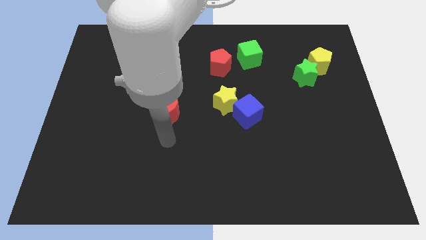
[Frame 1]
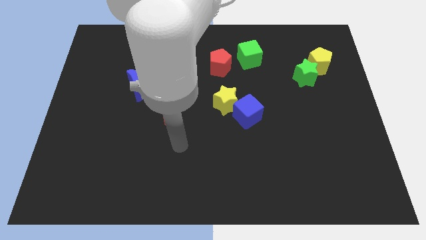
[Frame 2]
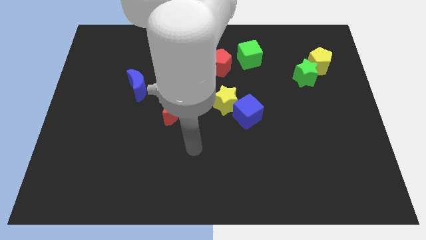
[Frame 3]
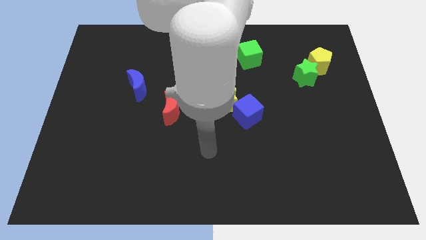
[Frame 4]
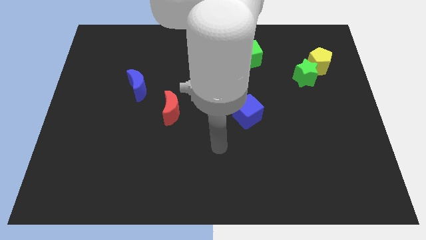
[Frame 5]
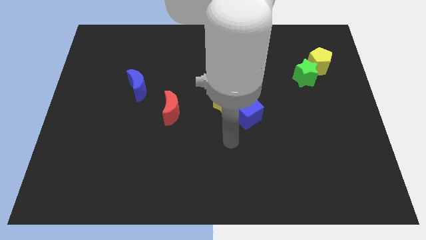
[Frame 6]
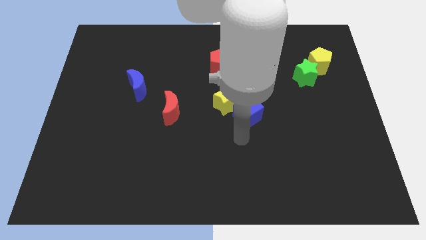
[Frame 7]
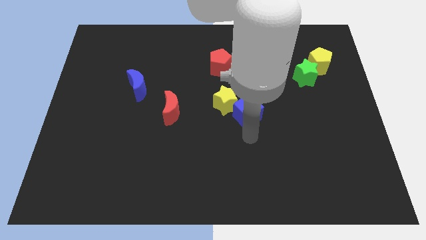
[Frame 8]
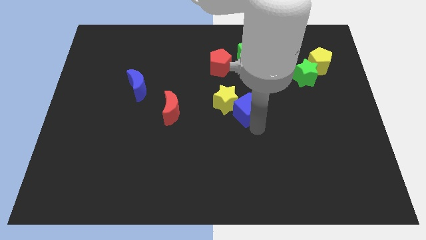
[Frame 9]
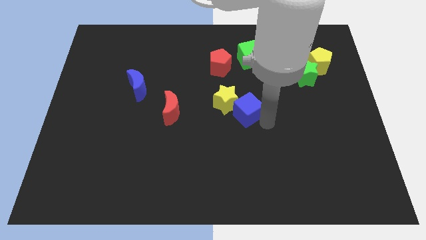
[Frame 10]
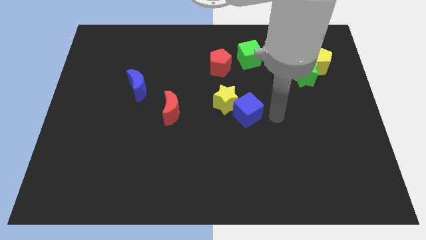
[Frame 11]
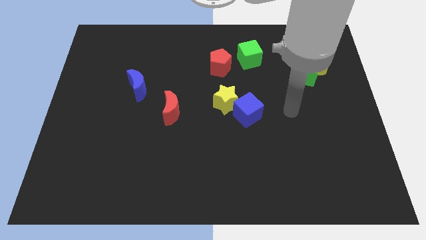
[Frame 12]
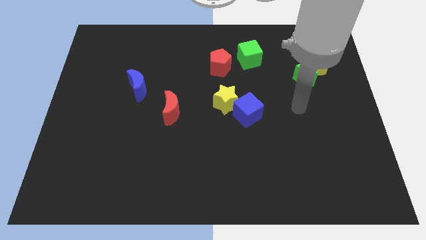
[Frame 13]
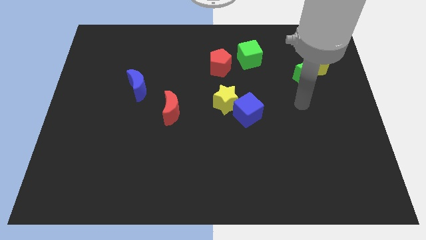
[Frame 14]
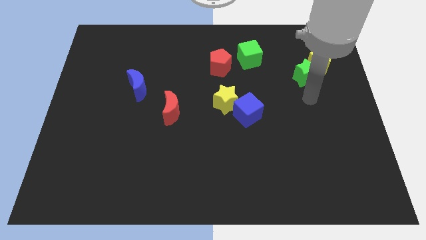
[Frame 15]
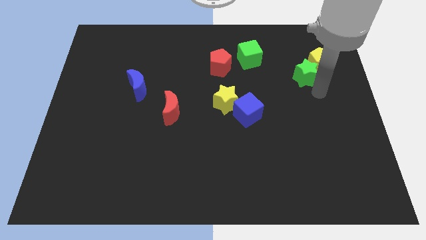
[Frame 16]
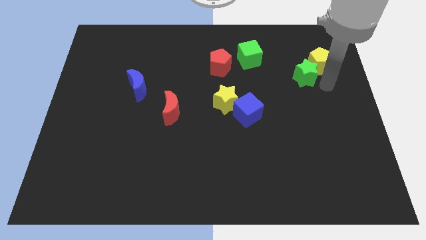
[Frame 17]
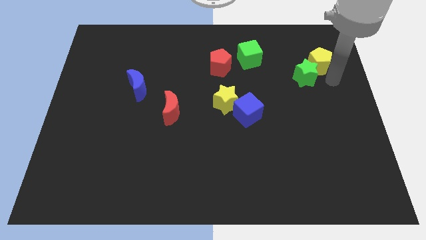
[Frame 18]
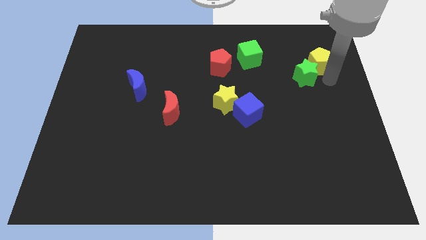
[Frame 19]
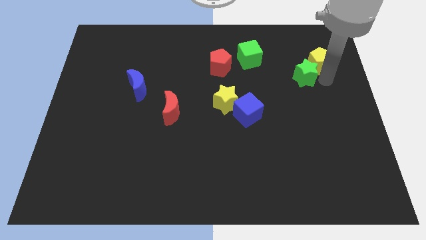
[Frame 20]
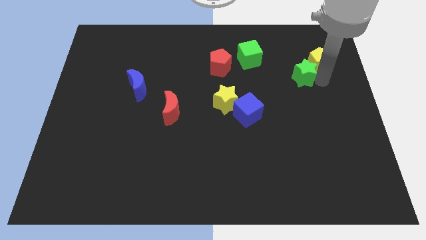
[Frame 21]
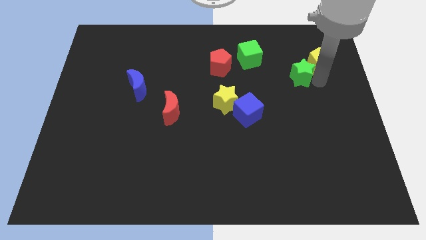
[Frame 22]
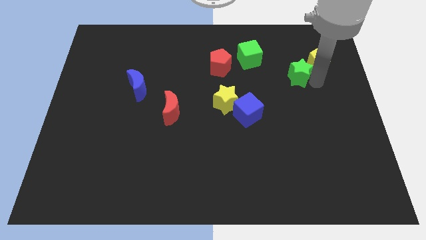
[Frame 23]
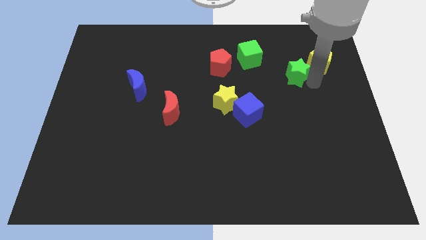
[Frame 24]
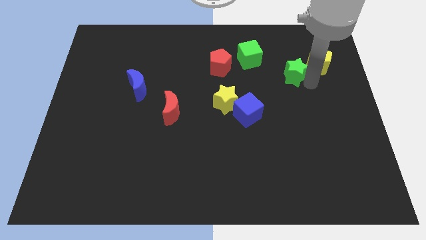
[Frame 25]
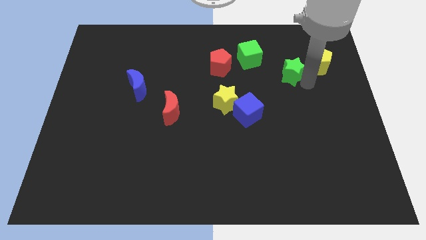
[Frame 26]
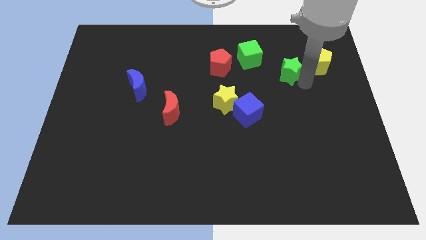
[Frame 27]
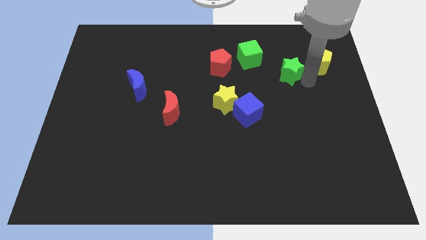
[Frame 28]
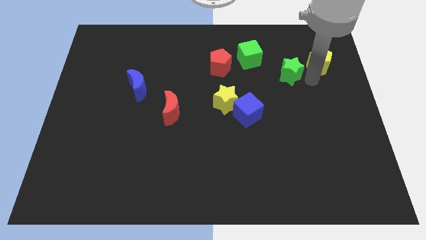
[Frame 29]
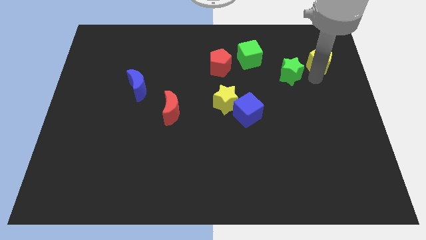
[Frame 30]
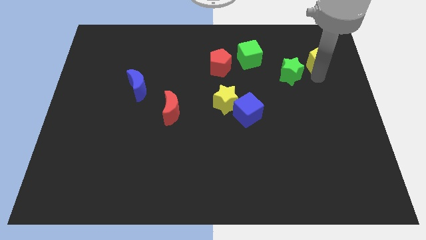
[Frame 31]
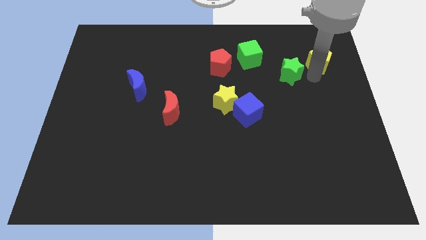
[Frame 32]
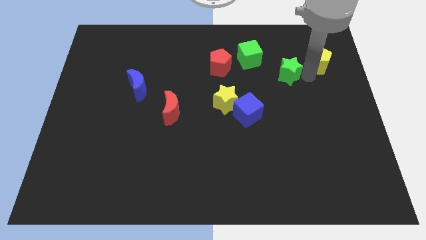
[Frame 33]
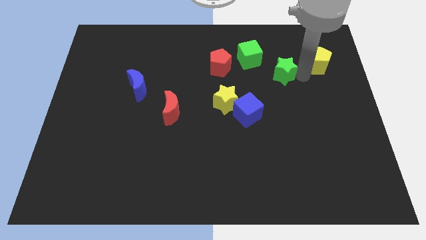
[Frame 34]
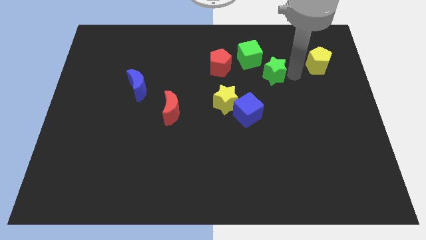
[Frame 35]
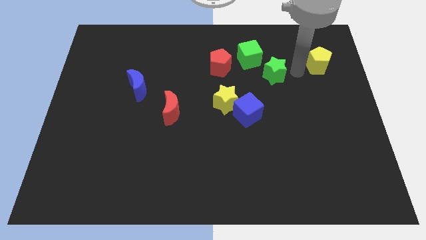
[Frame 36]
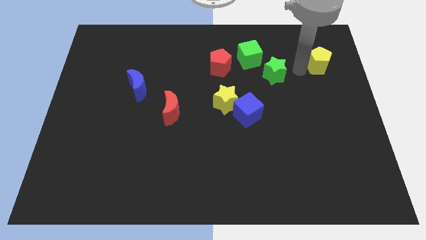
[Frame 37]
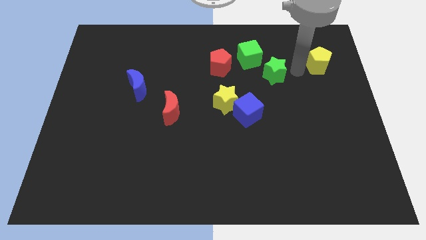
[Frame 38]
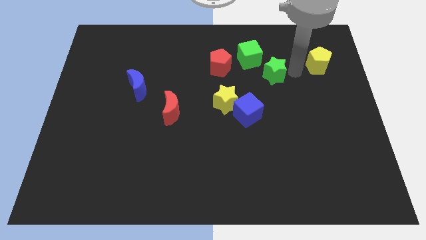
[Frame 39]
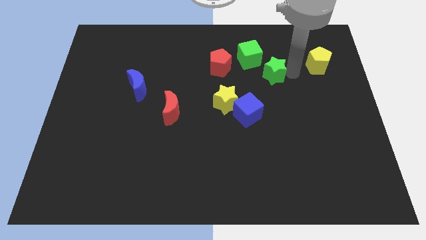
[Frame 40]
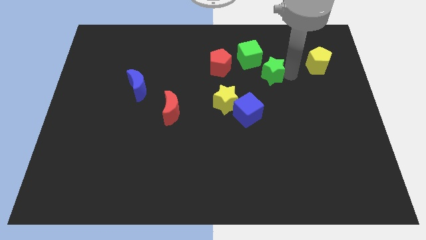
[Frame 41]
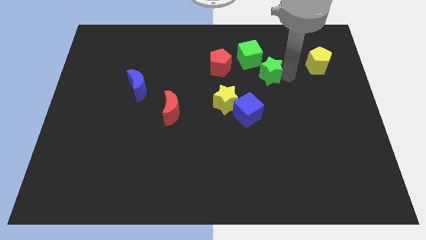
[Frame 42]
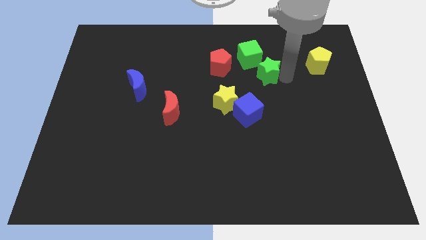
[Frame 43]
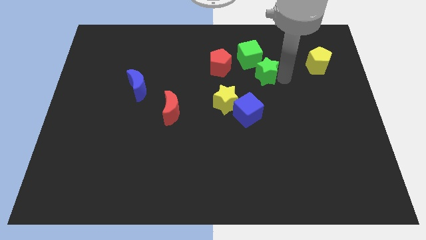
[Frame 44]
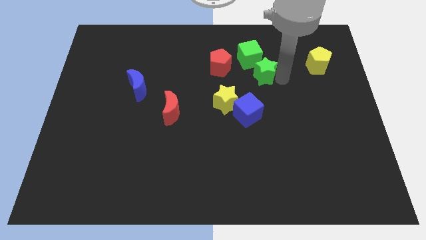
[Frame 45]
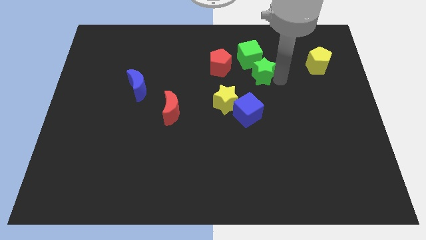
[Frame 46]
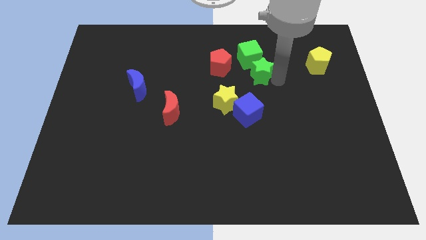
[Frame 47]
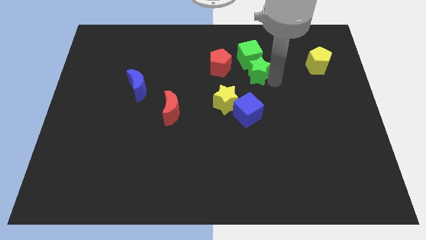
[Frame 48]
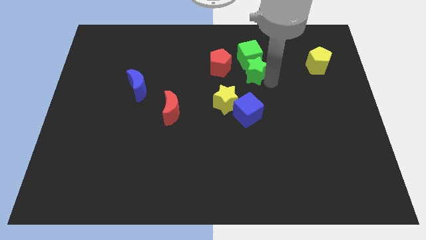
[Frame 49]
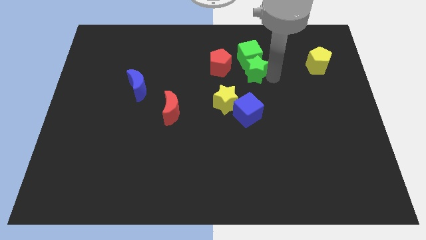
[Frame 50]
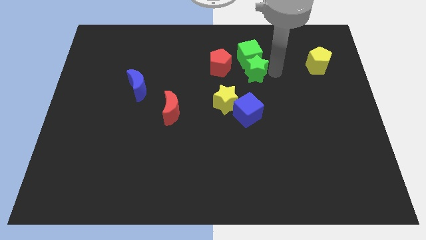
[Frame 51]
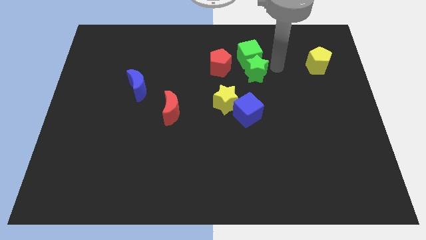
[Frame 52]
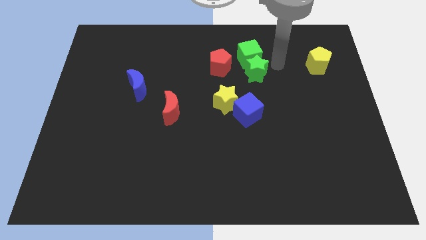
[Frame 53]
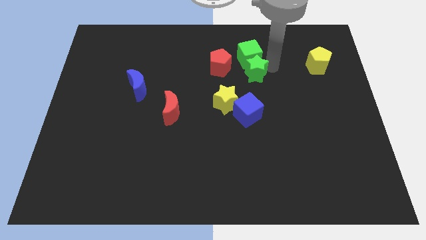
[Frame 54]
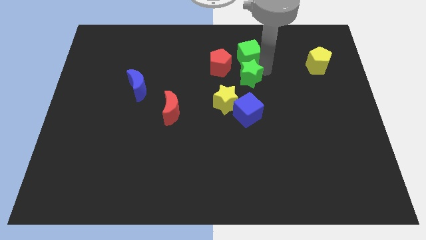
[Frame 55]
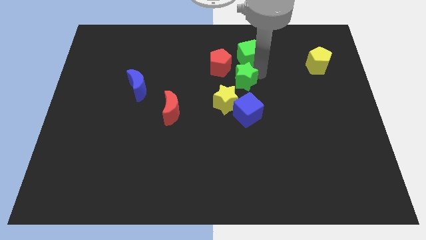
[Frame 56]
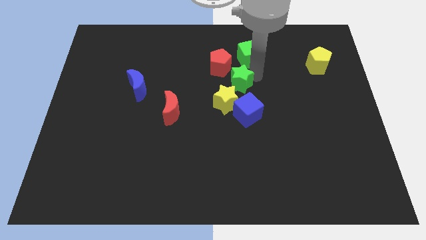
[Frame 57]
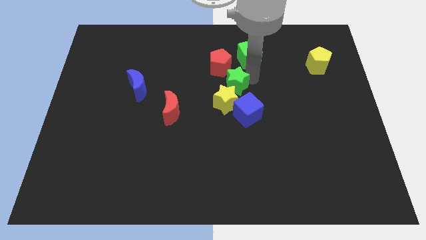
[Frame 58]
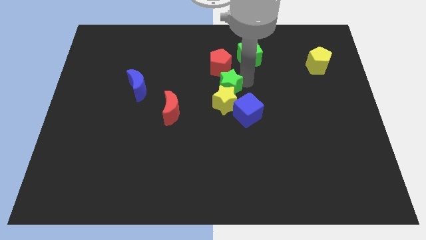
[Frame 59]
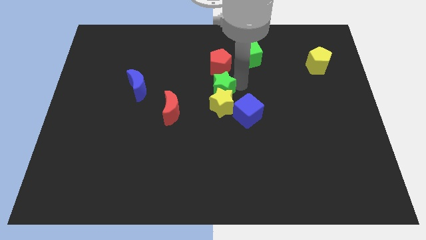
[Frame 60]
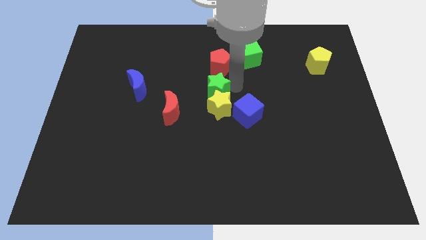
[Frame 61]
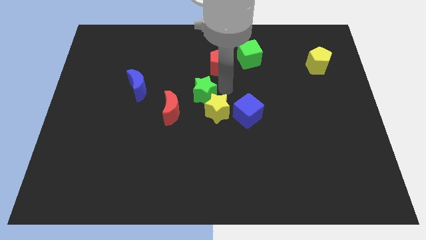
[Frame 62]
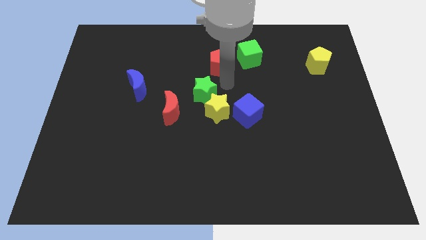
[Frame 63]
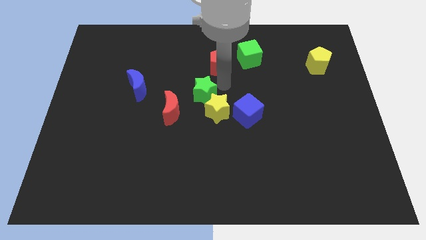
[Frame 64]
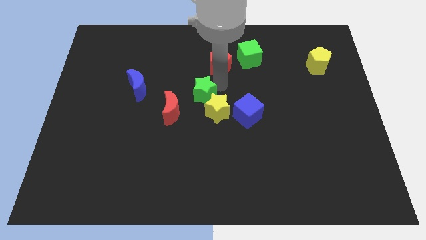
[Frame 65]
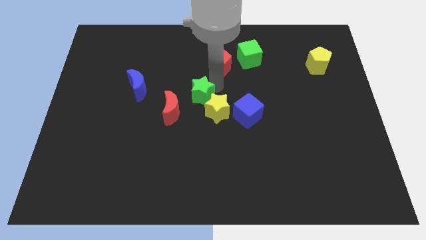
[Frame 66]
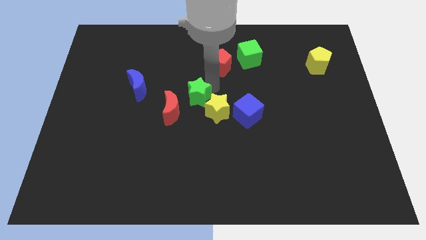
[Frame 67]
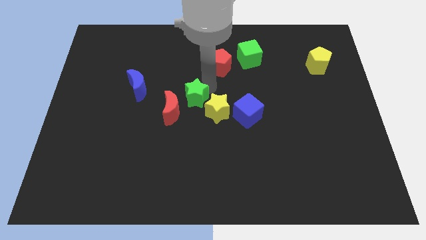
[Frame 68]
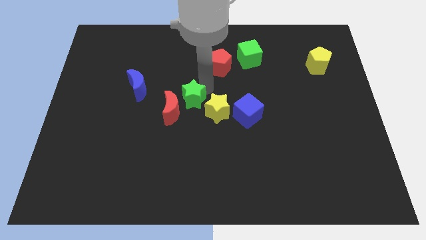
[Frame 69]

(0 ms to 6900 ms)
put the green star next to the red moon

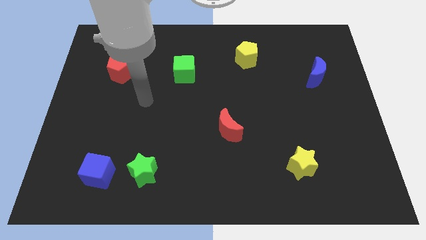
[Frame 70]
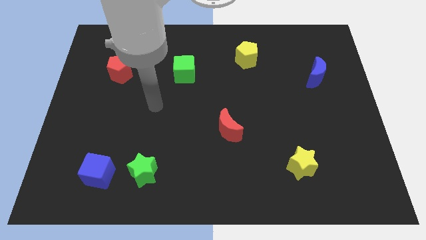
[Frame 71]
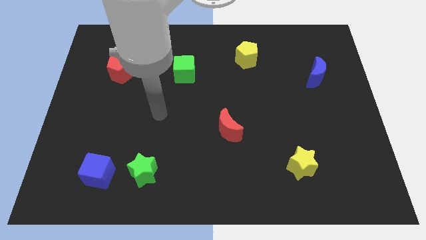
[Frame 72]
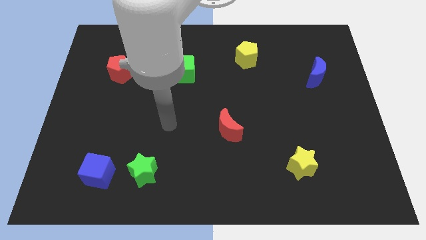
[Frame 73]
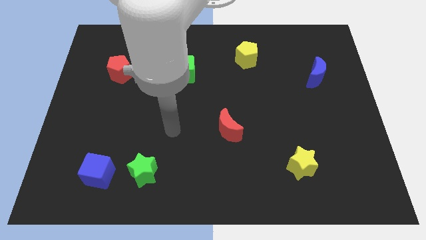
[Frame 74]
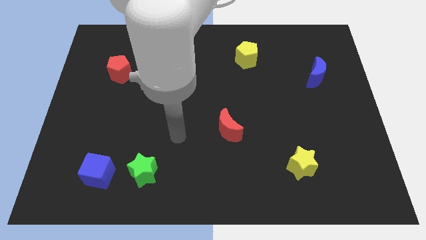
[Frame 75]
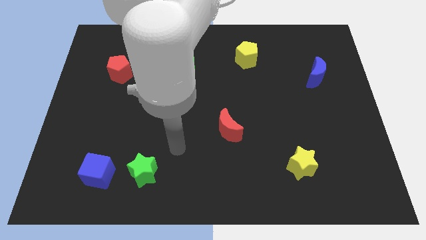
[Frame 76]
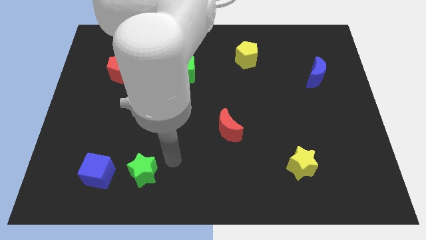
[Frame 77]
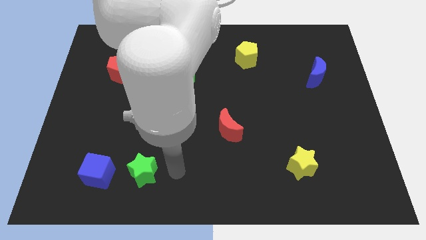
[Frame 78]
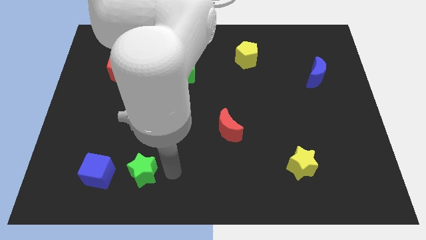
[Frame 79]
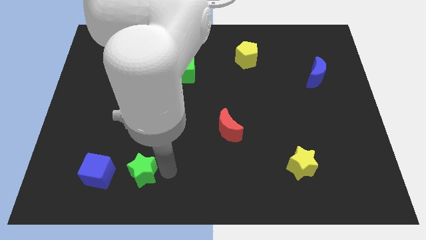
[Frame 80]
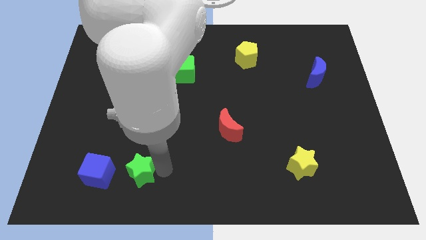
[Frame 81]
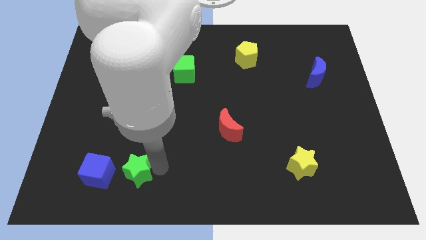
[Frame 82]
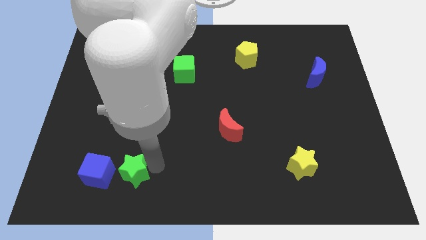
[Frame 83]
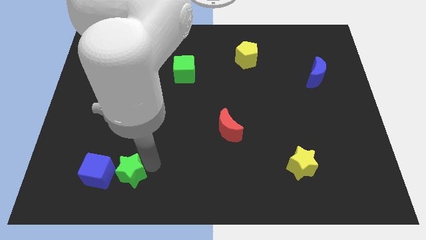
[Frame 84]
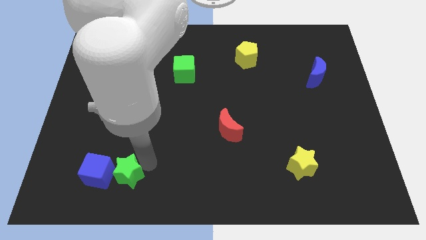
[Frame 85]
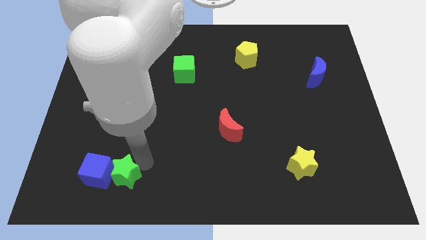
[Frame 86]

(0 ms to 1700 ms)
push the green star next to the blue cube
